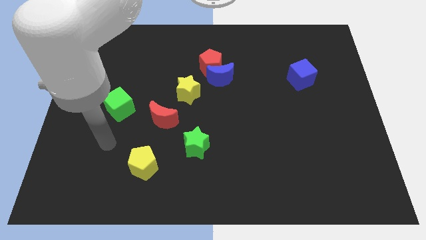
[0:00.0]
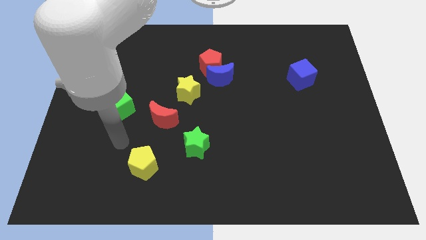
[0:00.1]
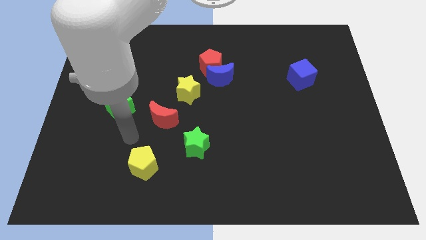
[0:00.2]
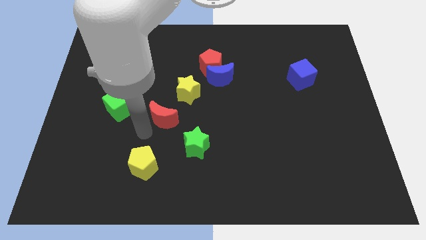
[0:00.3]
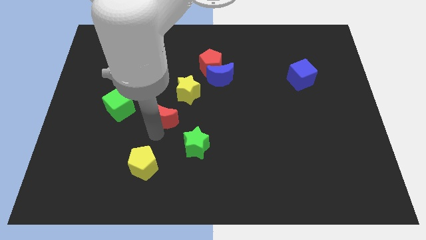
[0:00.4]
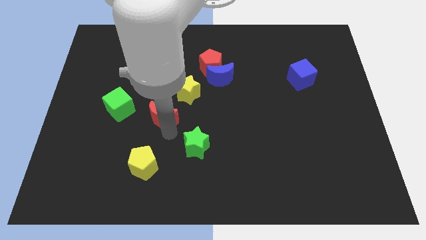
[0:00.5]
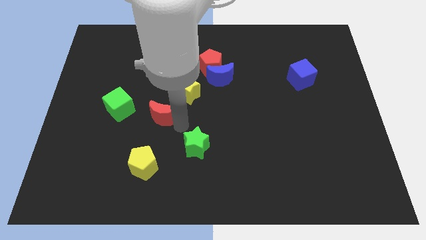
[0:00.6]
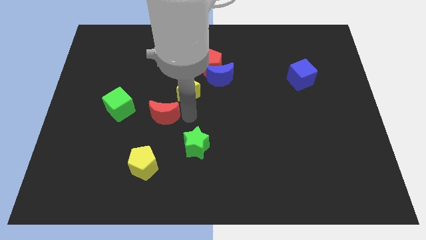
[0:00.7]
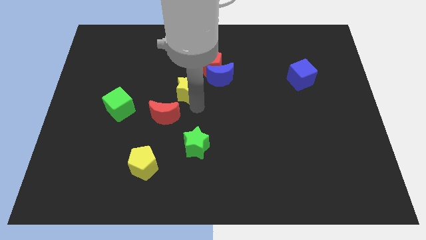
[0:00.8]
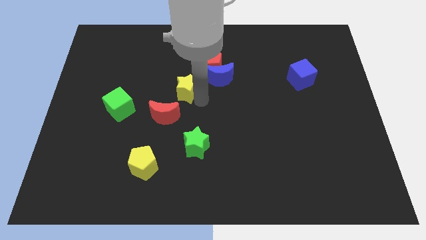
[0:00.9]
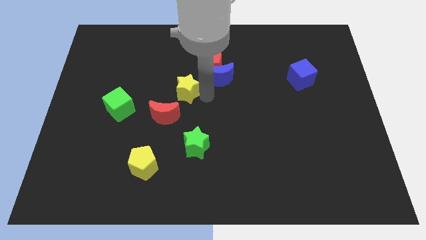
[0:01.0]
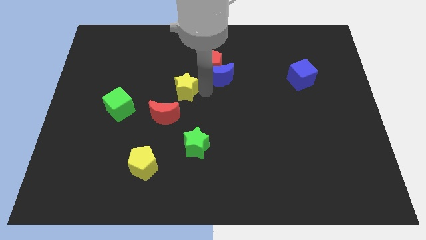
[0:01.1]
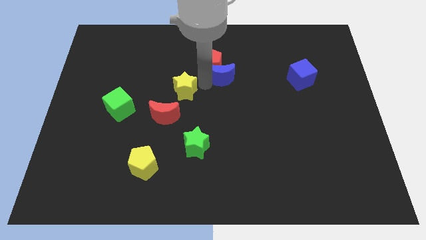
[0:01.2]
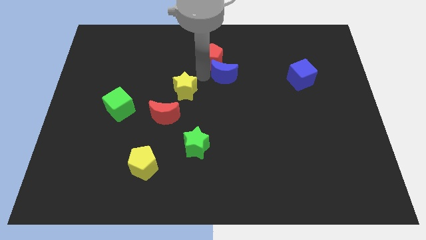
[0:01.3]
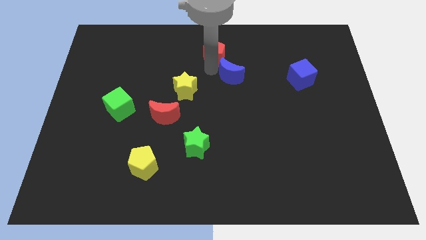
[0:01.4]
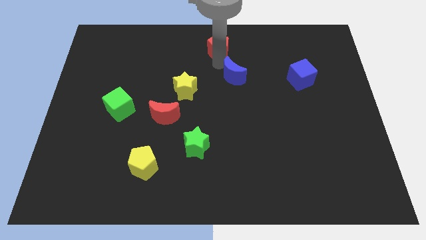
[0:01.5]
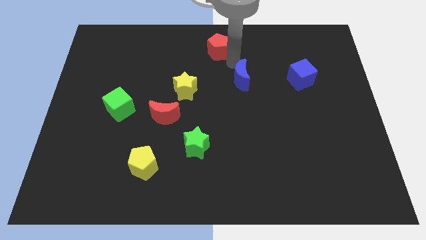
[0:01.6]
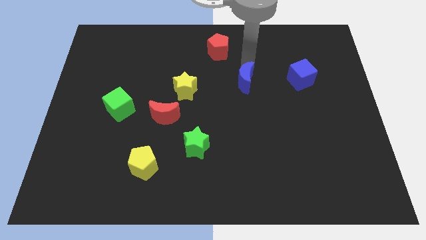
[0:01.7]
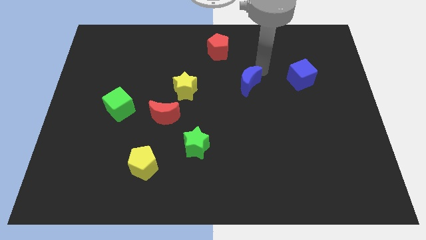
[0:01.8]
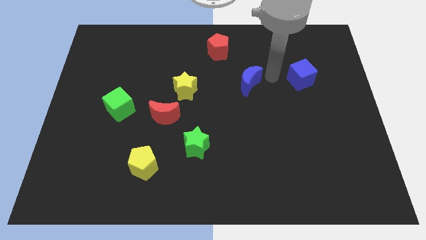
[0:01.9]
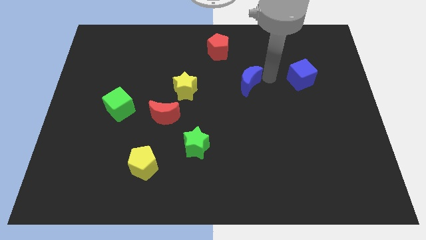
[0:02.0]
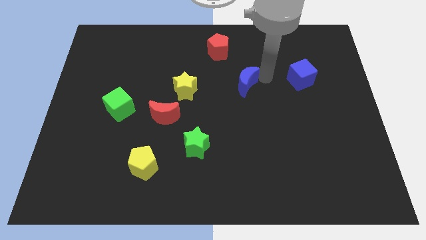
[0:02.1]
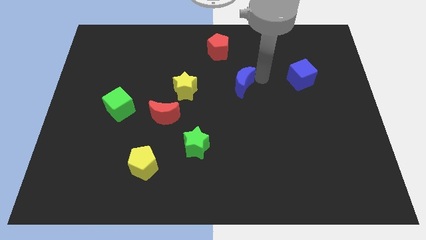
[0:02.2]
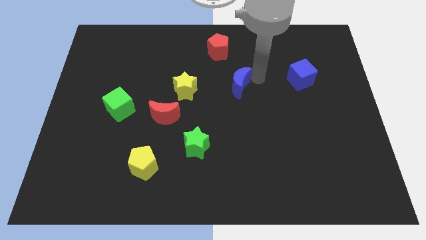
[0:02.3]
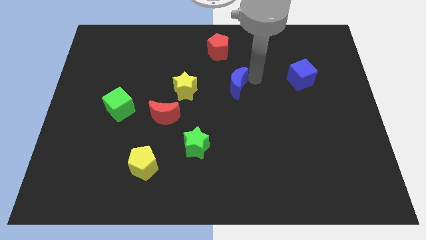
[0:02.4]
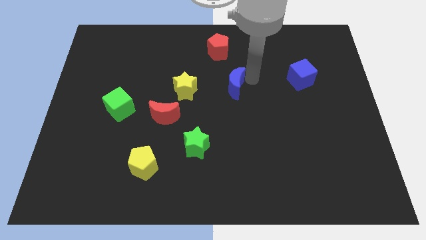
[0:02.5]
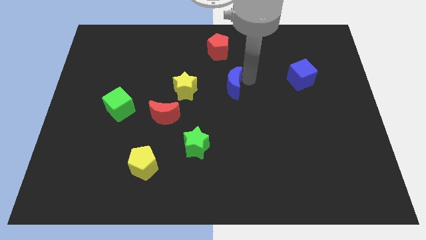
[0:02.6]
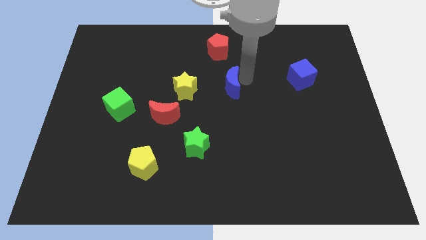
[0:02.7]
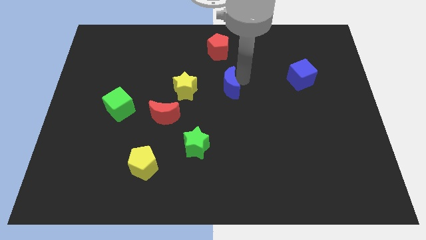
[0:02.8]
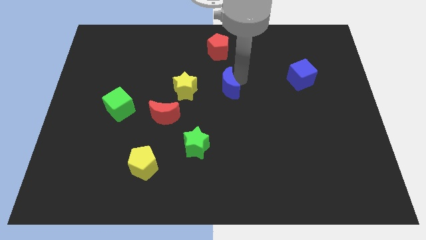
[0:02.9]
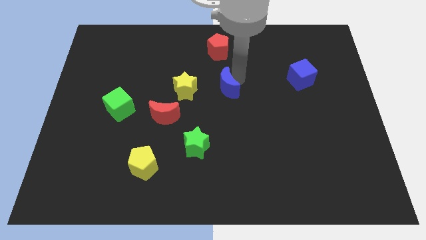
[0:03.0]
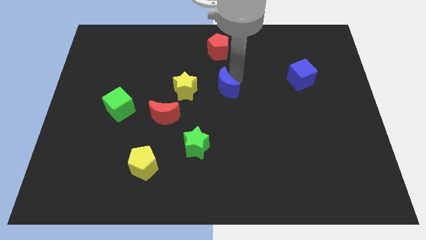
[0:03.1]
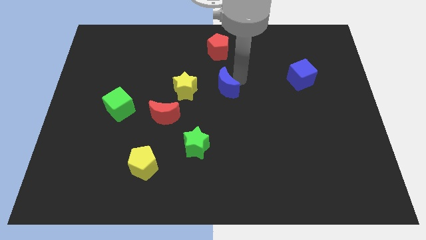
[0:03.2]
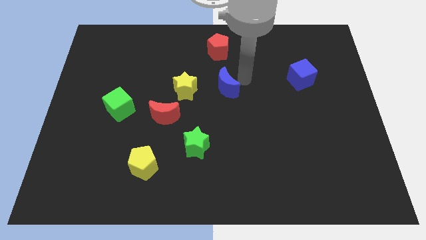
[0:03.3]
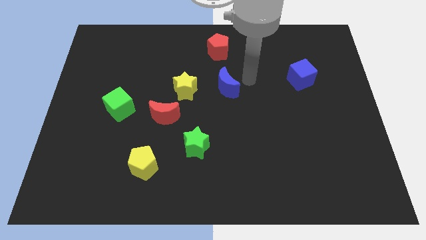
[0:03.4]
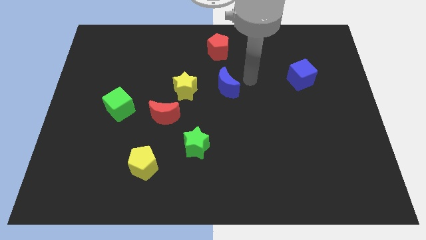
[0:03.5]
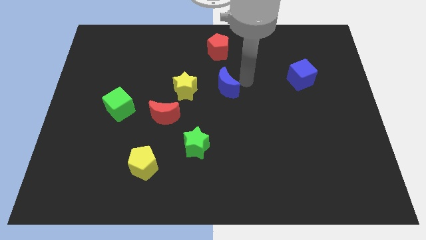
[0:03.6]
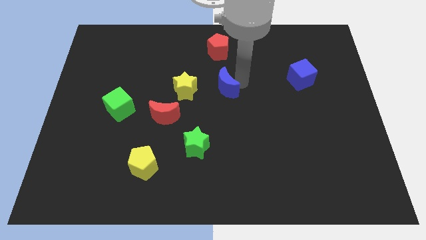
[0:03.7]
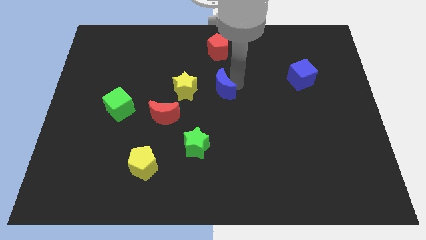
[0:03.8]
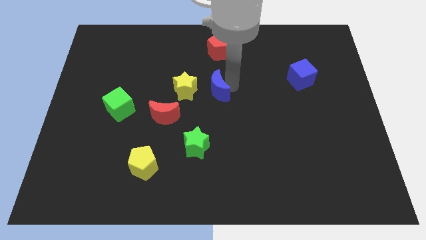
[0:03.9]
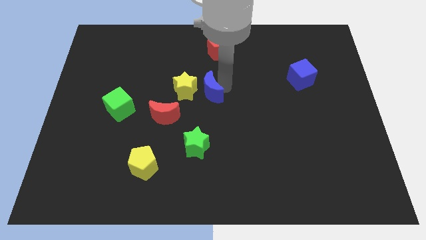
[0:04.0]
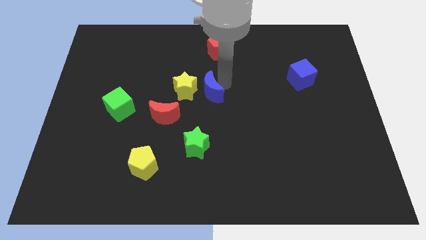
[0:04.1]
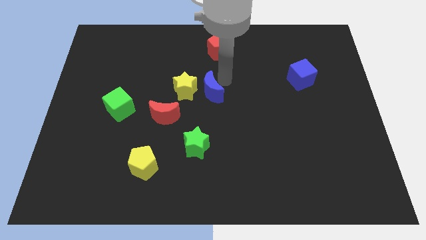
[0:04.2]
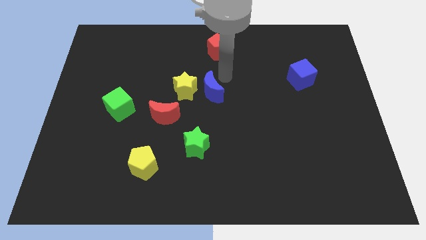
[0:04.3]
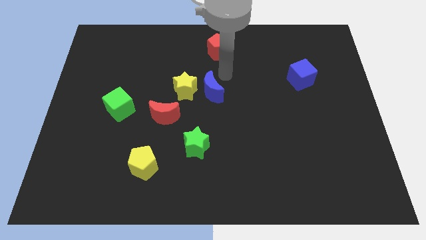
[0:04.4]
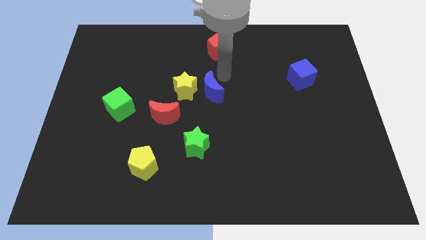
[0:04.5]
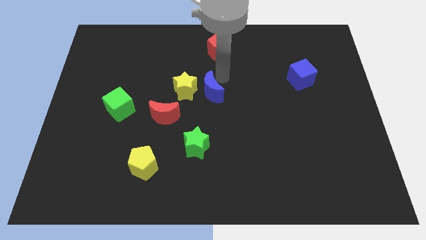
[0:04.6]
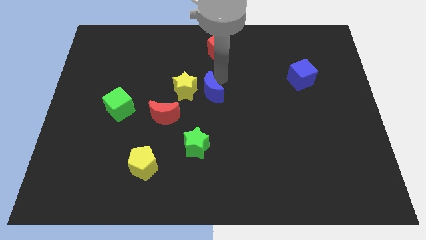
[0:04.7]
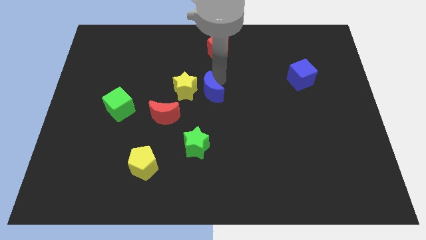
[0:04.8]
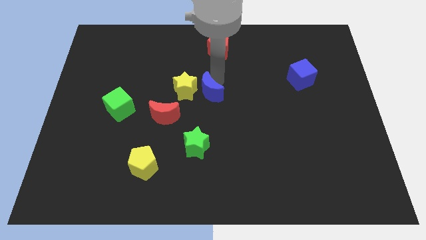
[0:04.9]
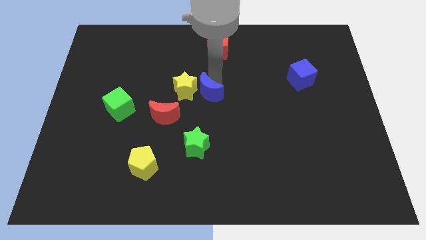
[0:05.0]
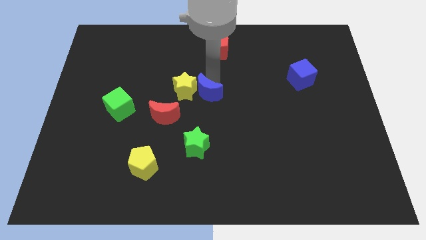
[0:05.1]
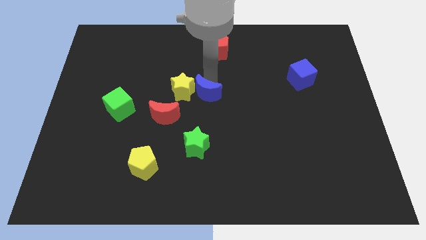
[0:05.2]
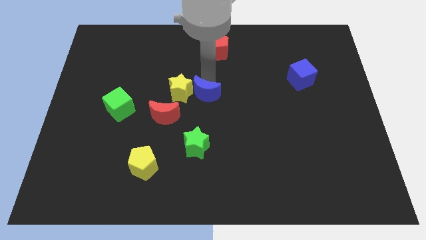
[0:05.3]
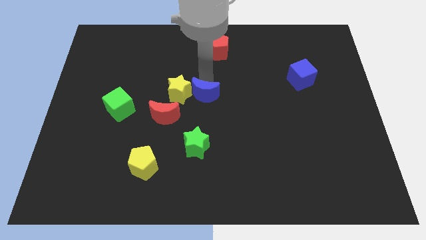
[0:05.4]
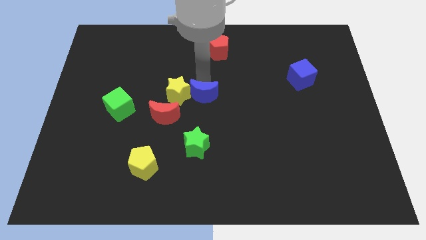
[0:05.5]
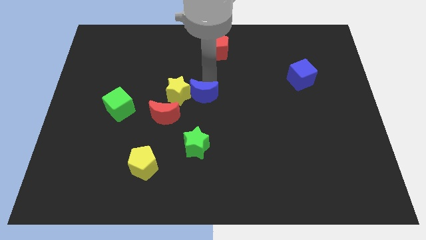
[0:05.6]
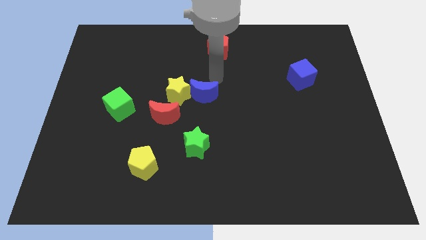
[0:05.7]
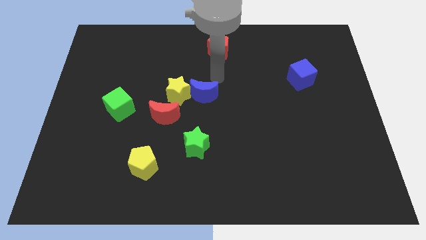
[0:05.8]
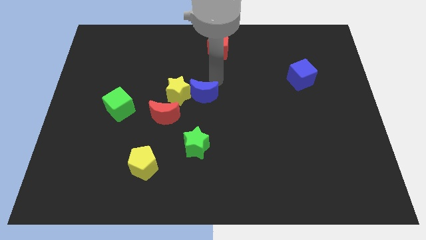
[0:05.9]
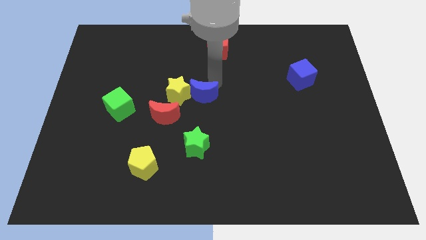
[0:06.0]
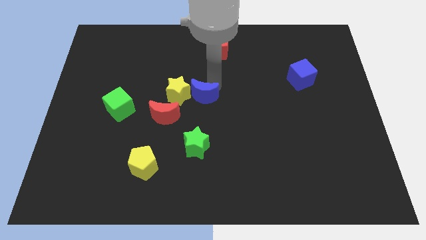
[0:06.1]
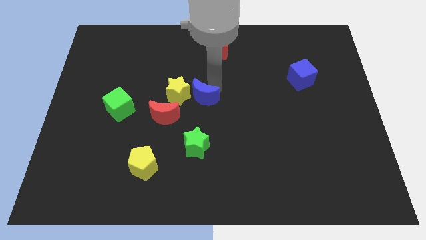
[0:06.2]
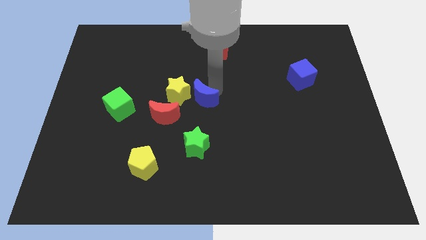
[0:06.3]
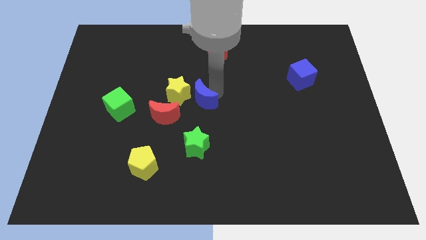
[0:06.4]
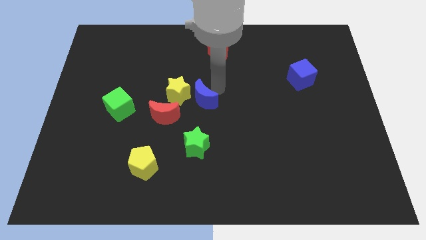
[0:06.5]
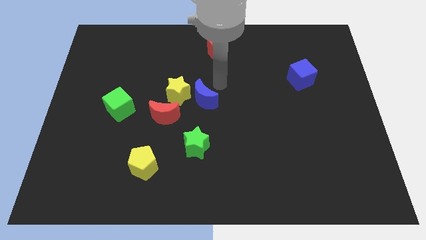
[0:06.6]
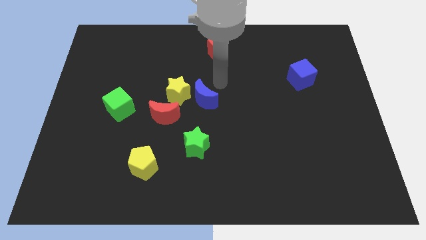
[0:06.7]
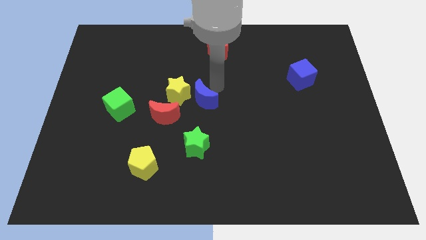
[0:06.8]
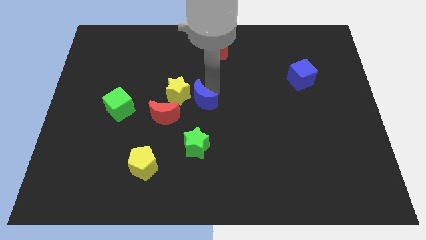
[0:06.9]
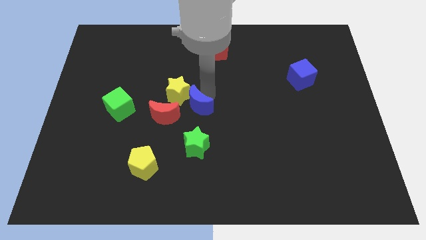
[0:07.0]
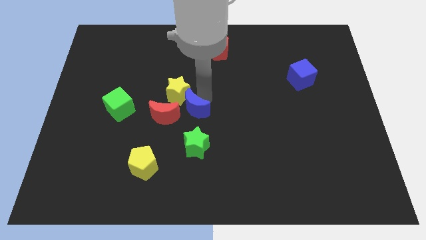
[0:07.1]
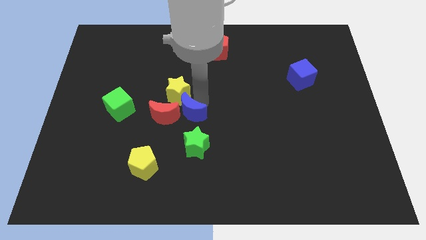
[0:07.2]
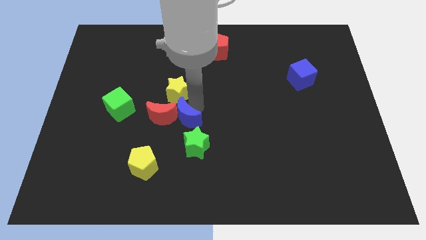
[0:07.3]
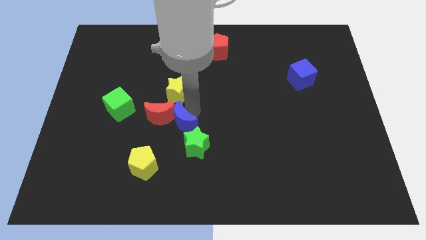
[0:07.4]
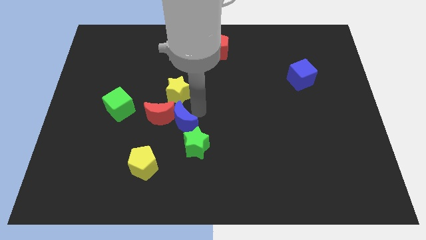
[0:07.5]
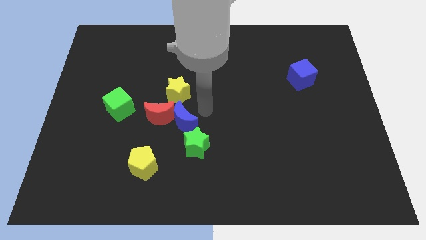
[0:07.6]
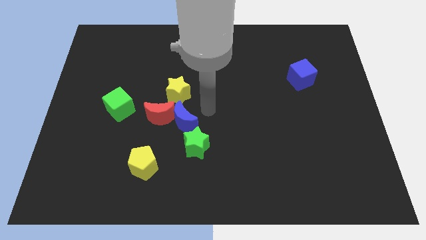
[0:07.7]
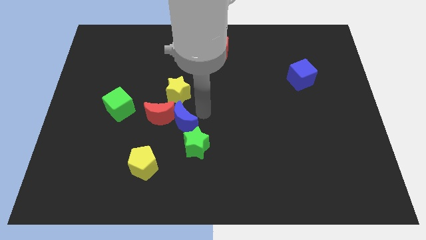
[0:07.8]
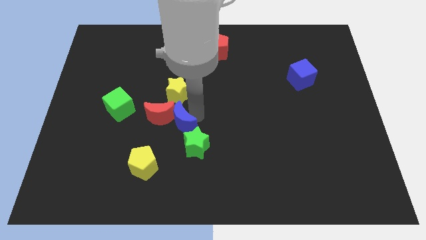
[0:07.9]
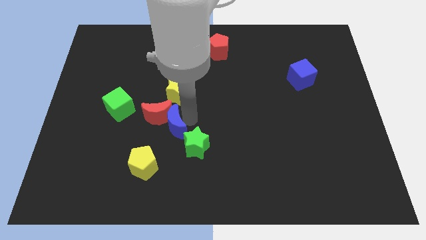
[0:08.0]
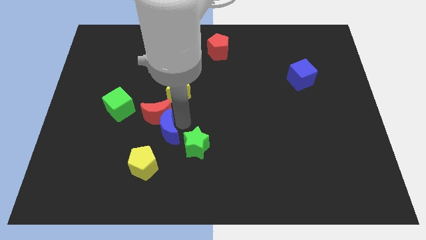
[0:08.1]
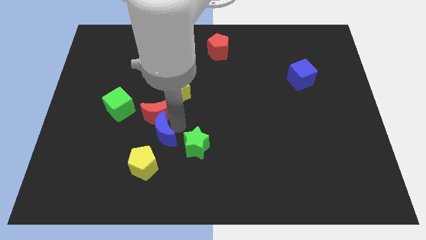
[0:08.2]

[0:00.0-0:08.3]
push the blue moon downwards and left
